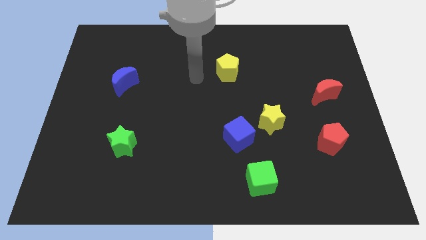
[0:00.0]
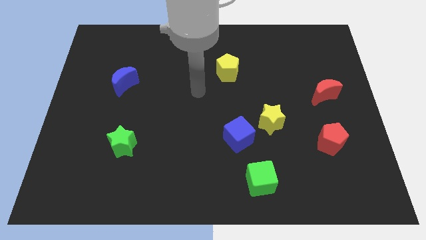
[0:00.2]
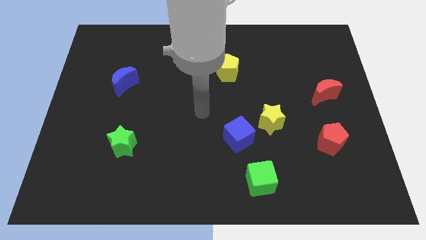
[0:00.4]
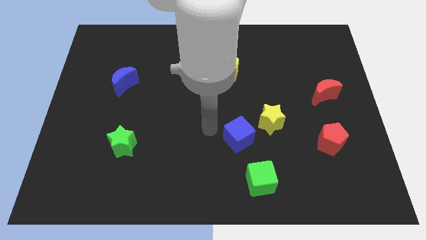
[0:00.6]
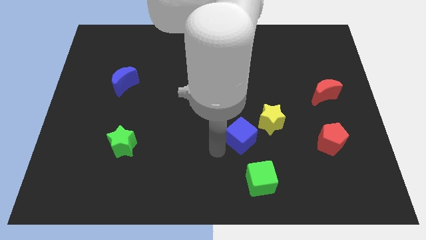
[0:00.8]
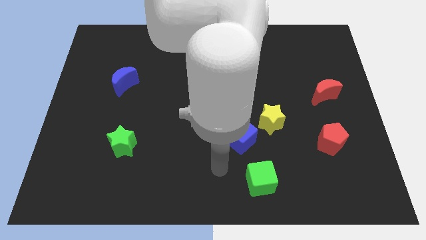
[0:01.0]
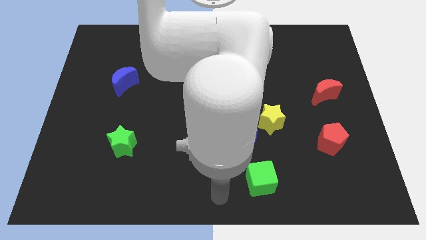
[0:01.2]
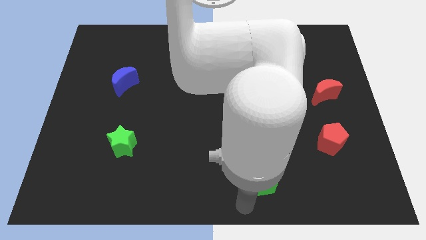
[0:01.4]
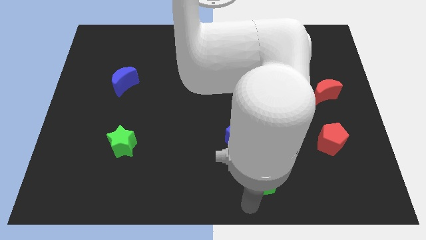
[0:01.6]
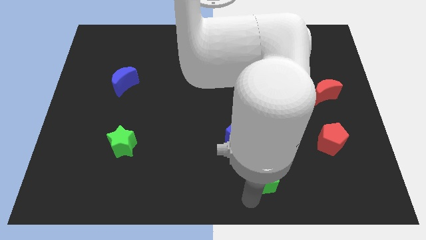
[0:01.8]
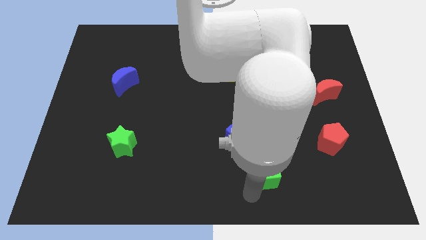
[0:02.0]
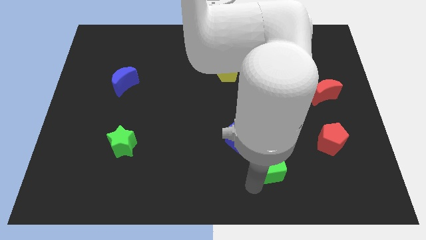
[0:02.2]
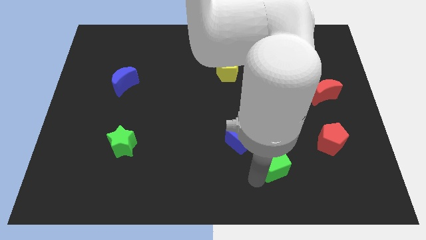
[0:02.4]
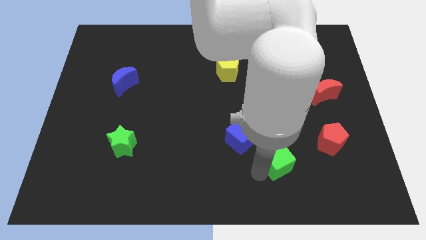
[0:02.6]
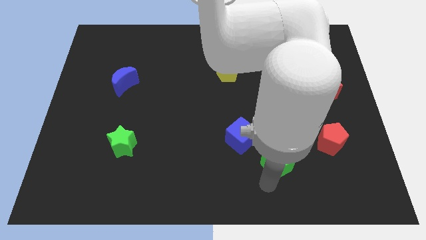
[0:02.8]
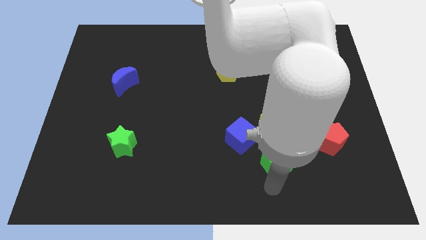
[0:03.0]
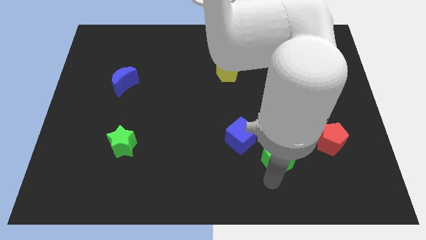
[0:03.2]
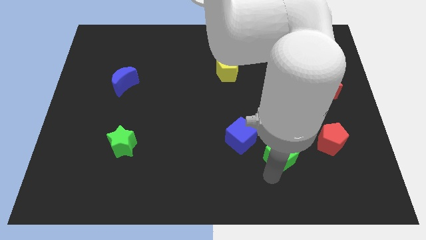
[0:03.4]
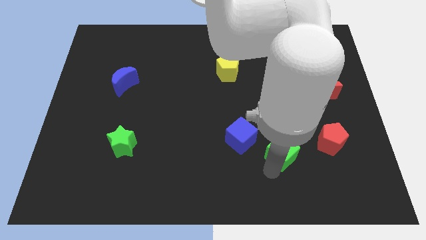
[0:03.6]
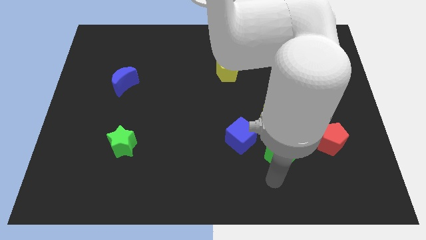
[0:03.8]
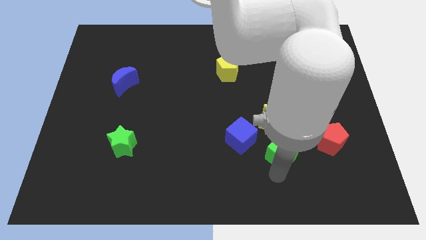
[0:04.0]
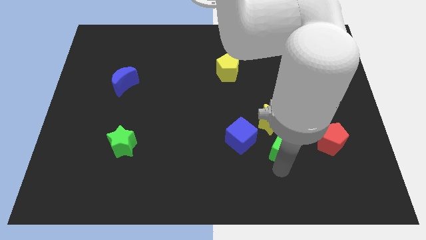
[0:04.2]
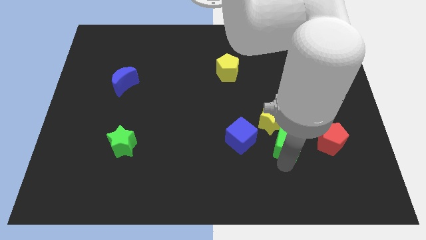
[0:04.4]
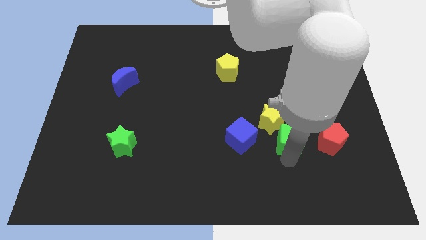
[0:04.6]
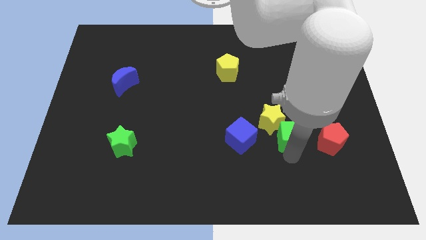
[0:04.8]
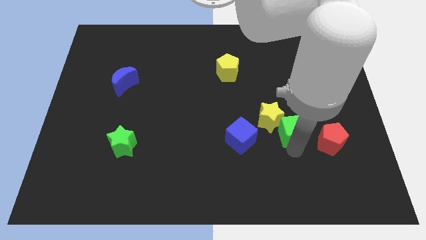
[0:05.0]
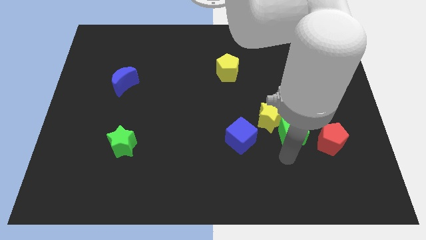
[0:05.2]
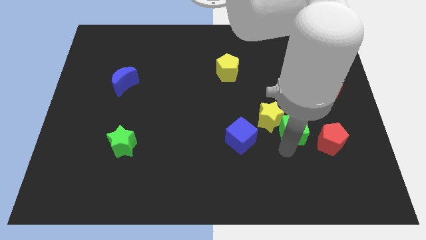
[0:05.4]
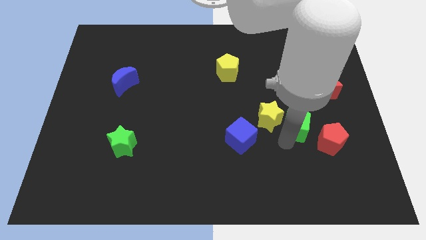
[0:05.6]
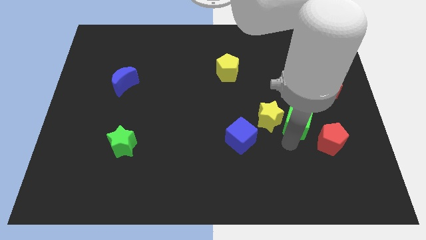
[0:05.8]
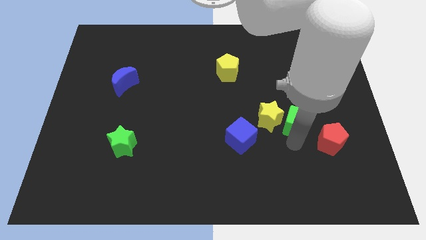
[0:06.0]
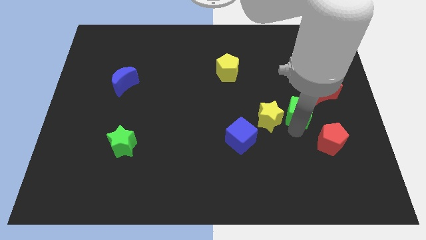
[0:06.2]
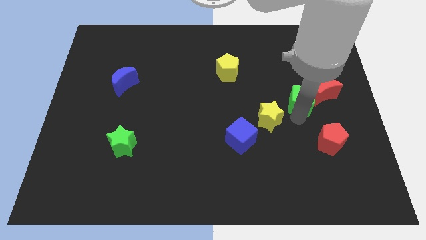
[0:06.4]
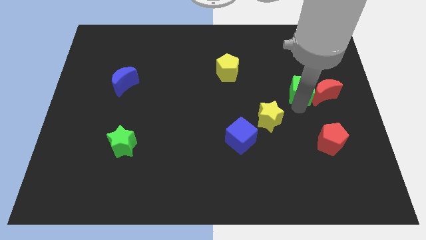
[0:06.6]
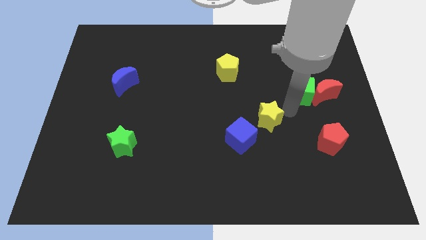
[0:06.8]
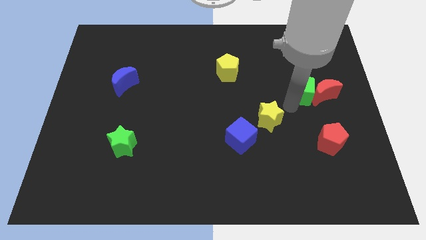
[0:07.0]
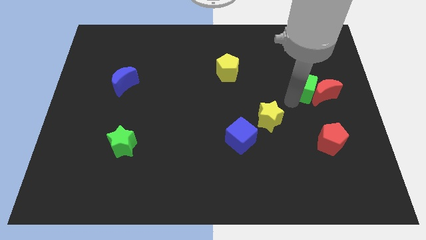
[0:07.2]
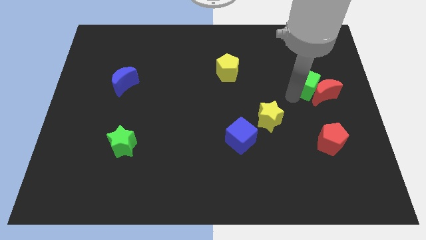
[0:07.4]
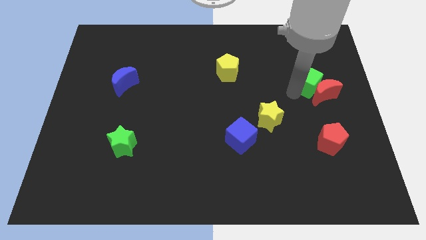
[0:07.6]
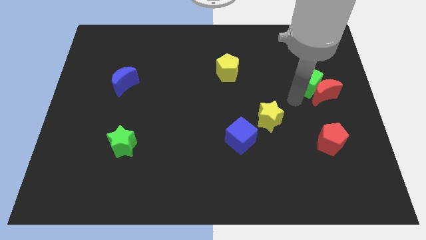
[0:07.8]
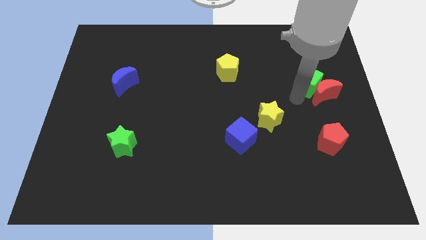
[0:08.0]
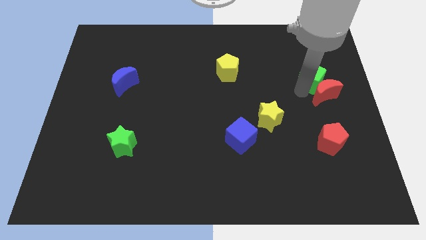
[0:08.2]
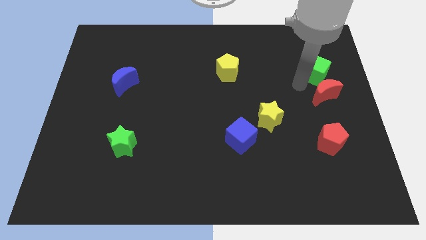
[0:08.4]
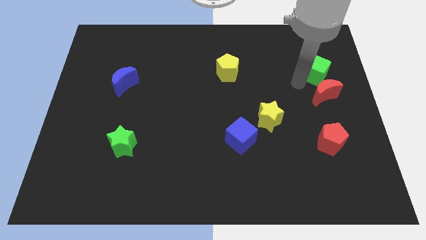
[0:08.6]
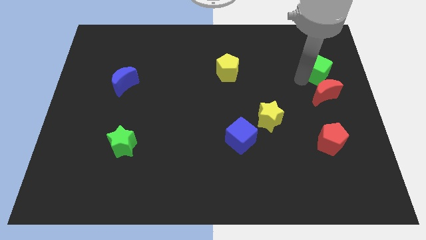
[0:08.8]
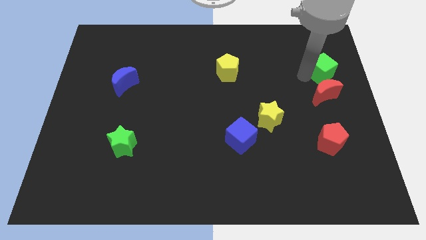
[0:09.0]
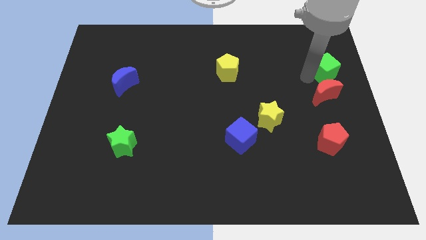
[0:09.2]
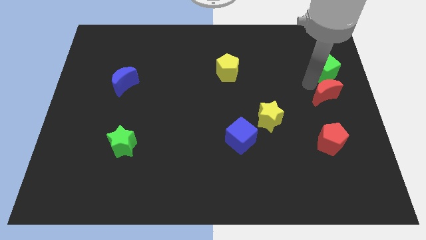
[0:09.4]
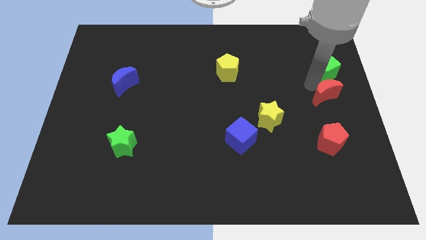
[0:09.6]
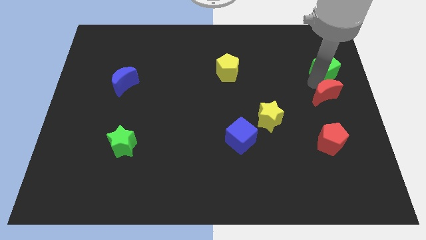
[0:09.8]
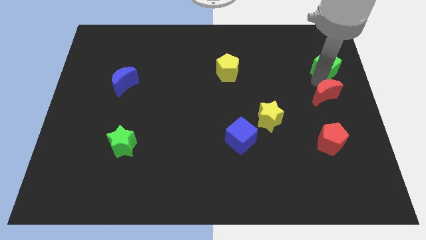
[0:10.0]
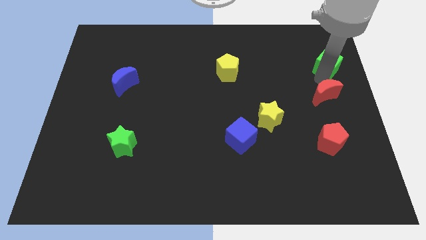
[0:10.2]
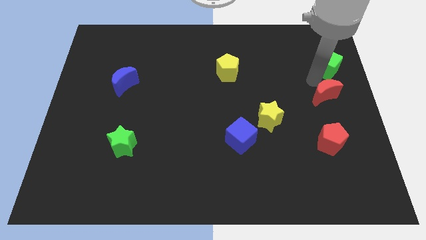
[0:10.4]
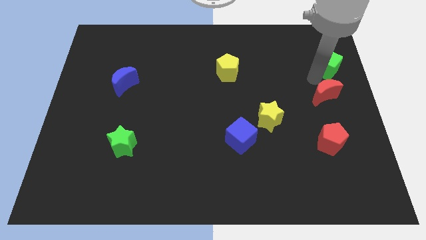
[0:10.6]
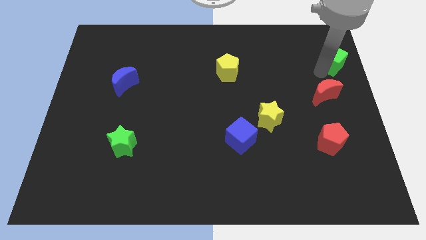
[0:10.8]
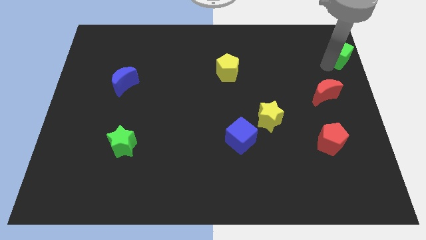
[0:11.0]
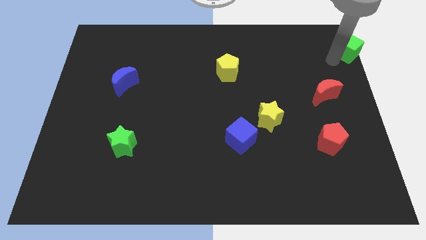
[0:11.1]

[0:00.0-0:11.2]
slide the green cube to the top right corner

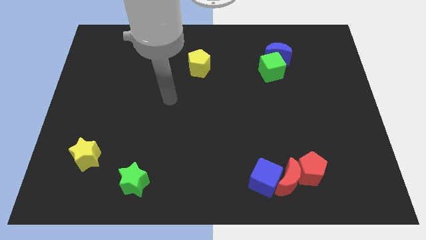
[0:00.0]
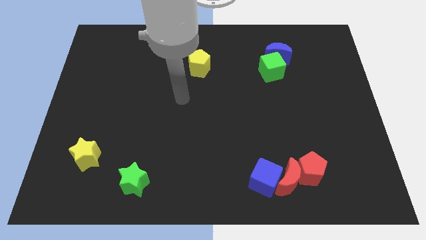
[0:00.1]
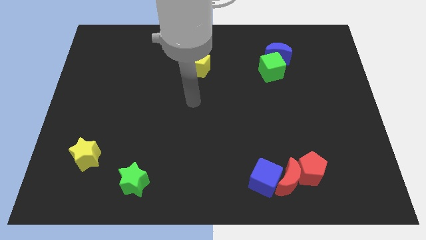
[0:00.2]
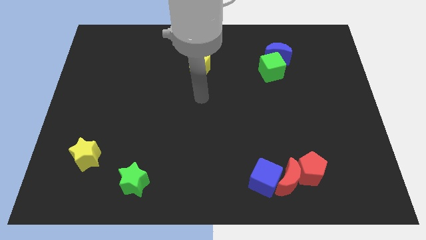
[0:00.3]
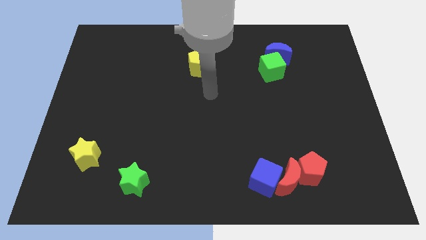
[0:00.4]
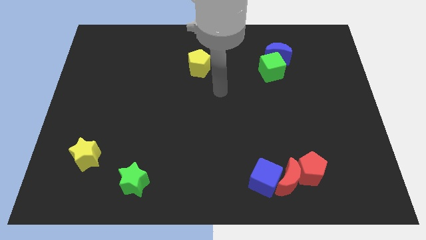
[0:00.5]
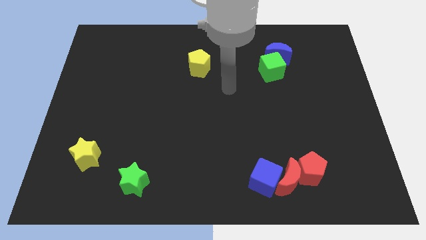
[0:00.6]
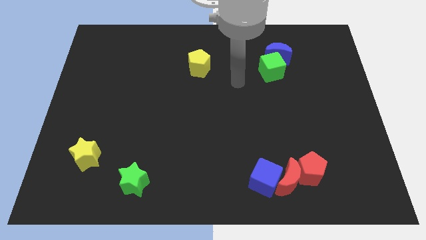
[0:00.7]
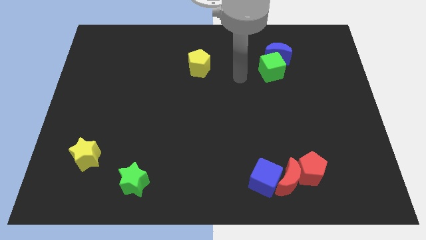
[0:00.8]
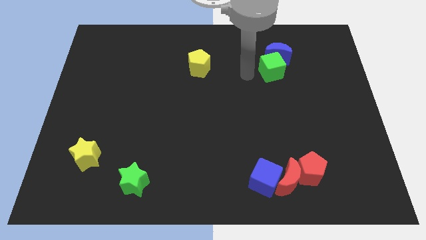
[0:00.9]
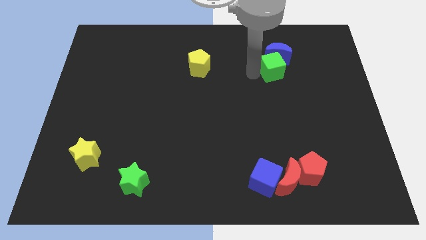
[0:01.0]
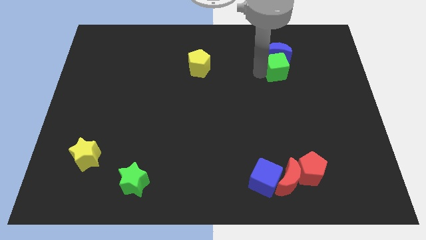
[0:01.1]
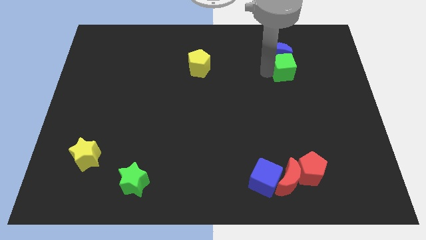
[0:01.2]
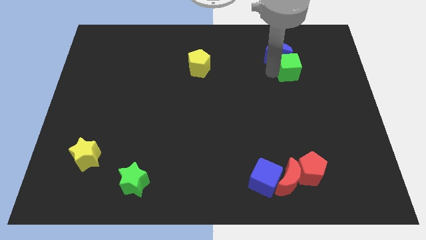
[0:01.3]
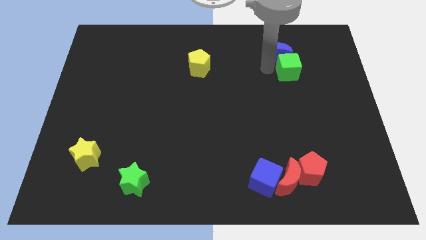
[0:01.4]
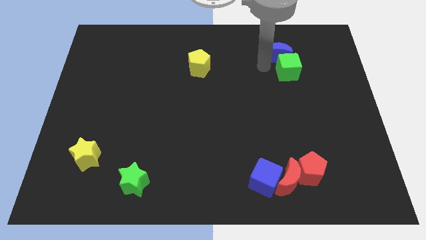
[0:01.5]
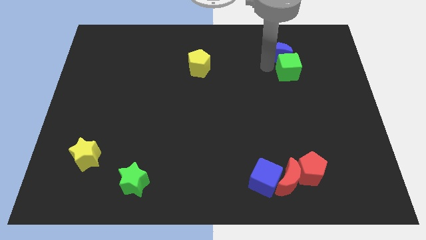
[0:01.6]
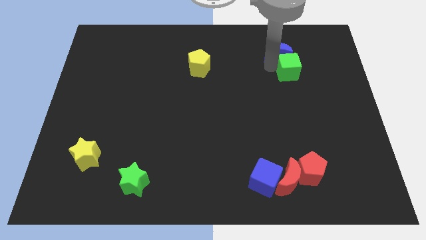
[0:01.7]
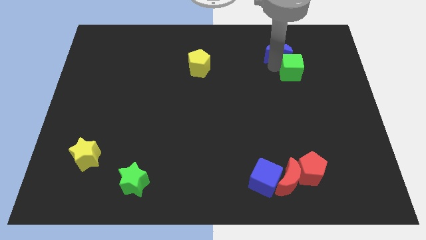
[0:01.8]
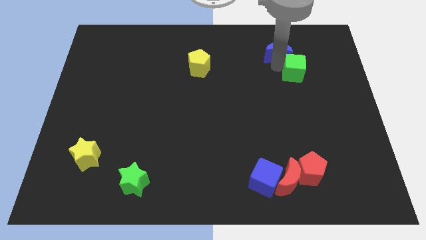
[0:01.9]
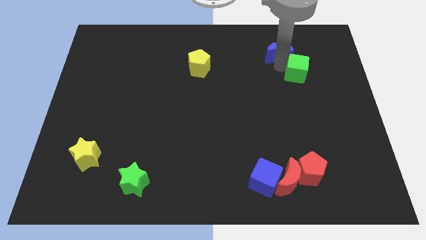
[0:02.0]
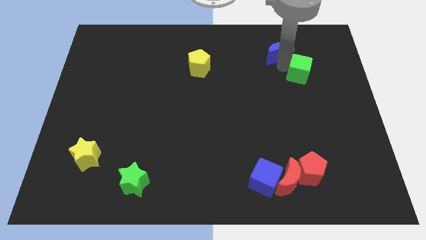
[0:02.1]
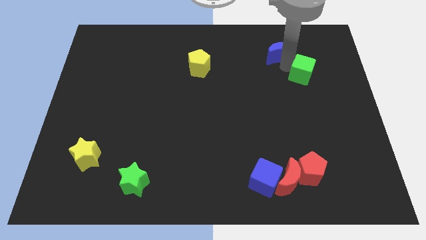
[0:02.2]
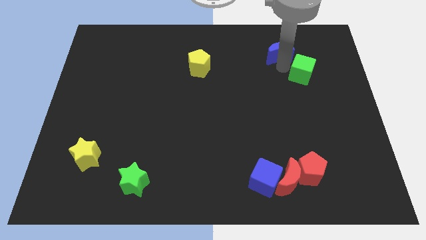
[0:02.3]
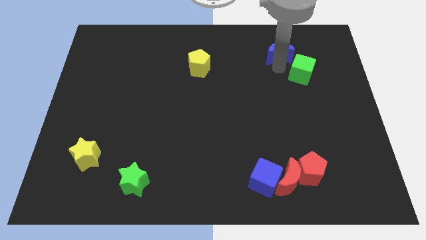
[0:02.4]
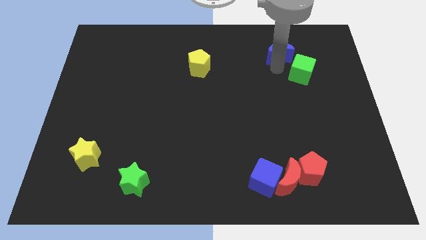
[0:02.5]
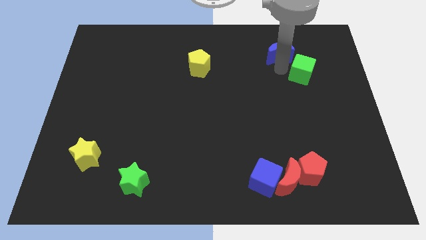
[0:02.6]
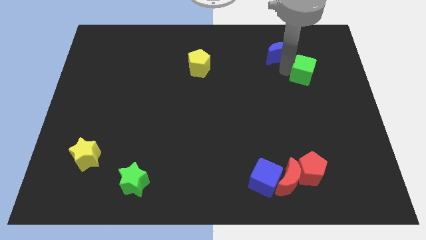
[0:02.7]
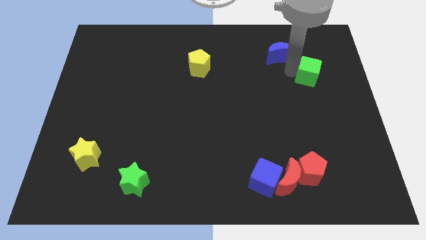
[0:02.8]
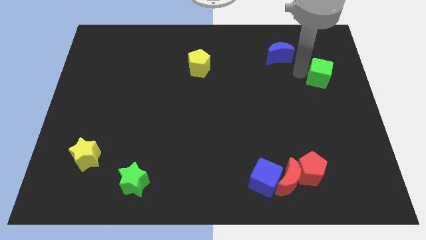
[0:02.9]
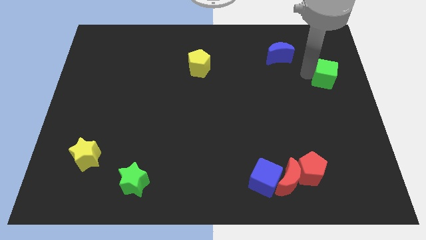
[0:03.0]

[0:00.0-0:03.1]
put the green cube to the center right
